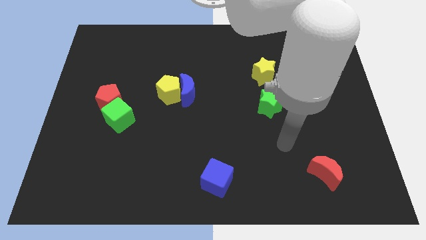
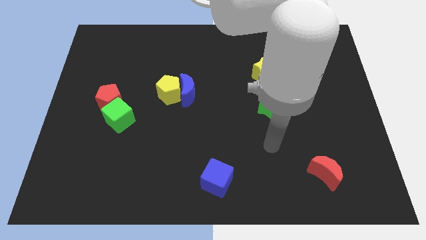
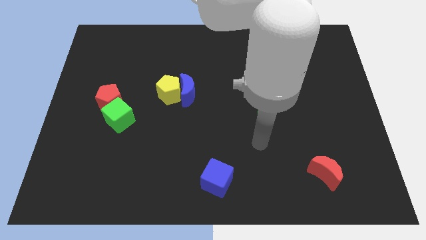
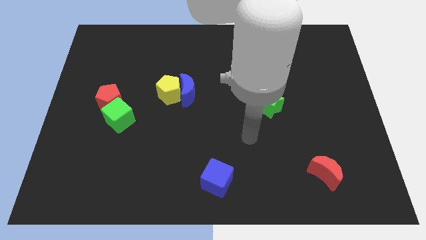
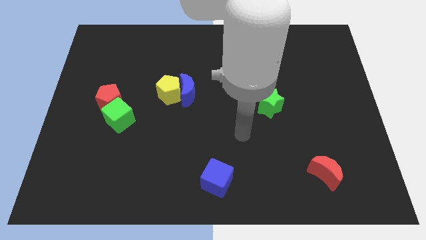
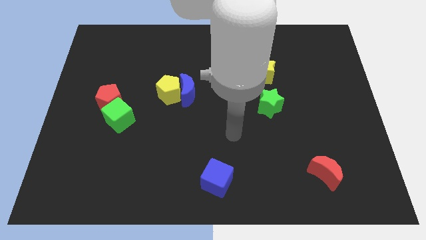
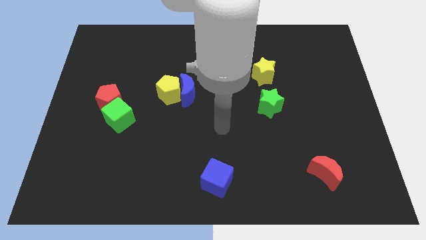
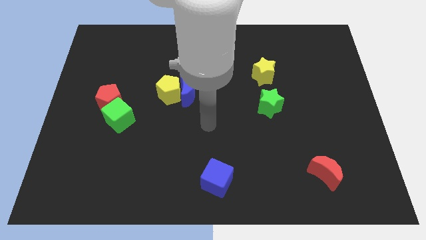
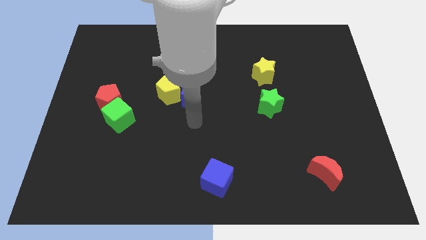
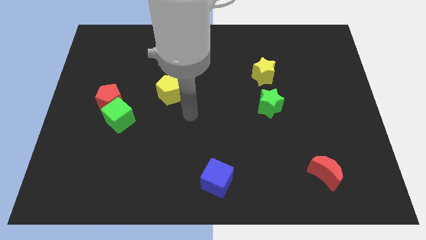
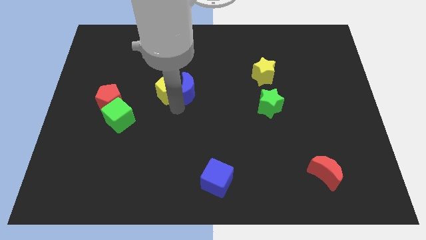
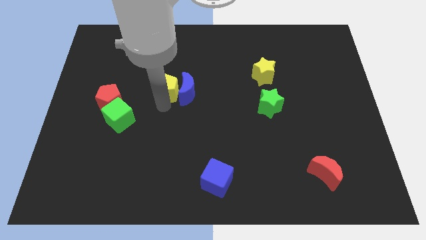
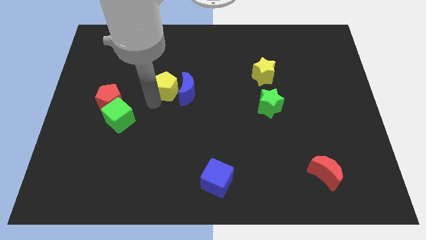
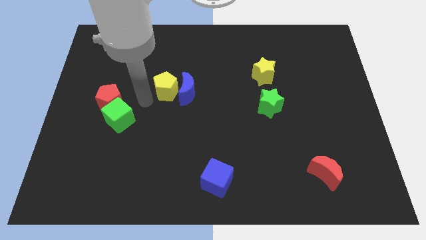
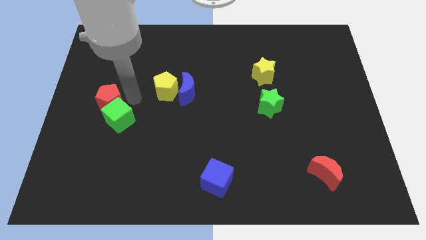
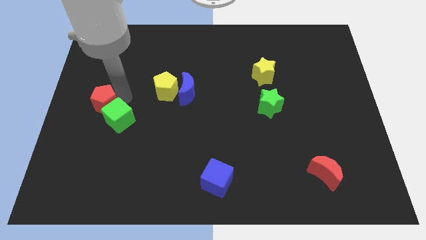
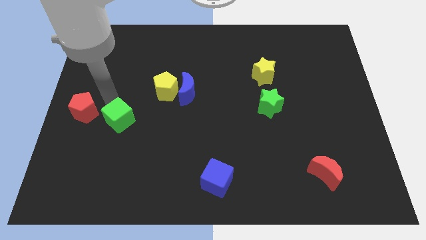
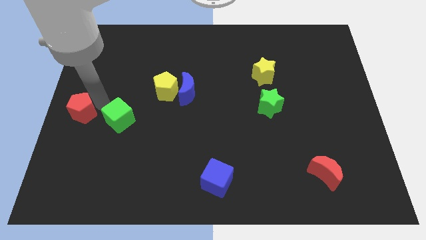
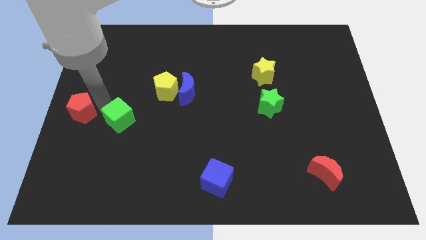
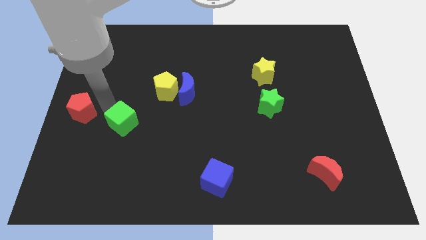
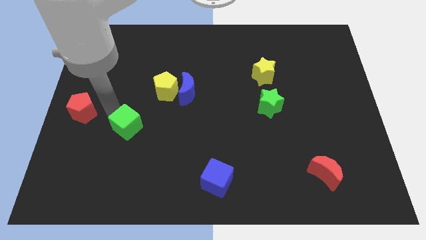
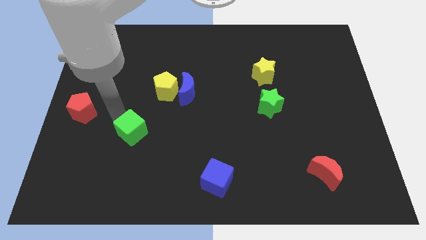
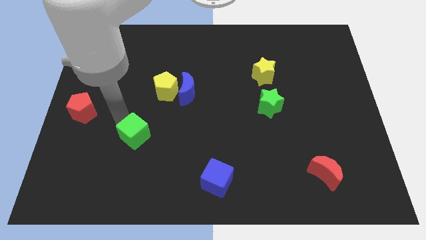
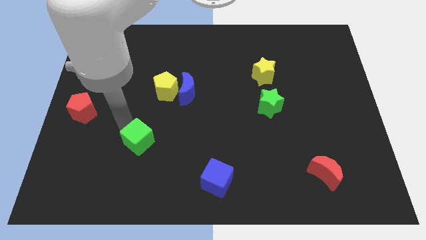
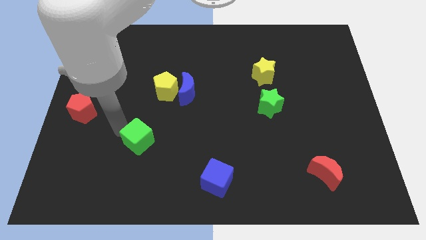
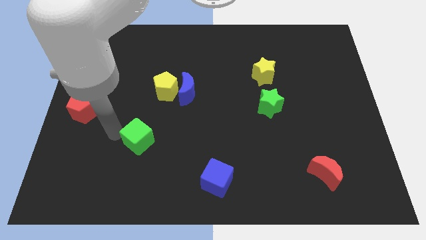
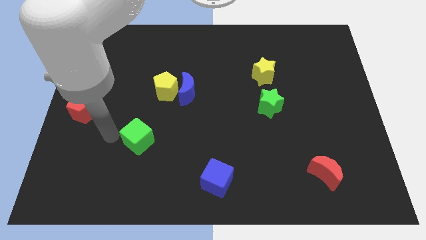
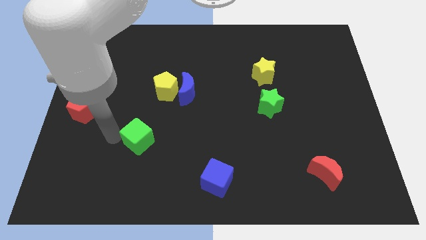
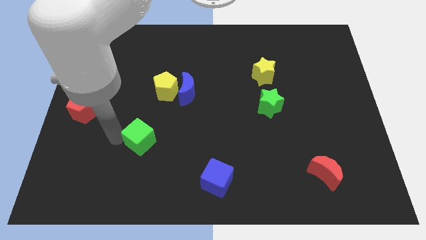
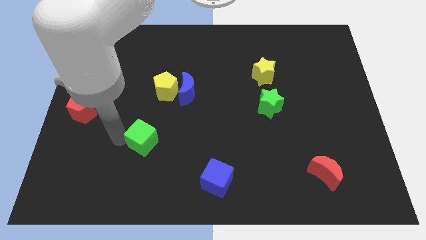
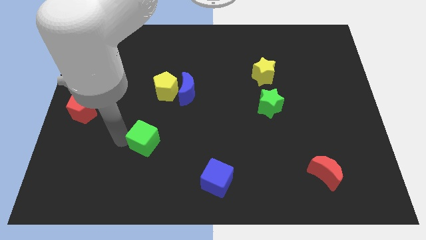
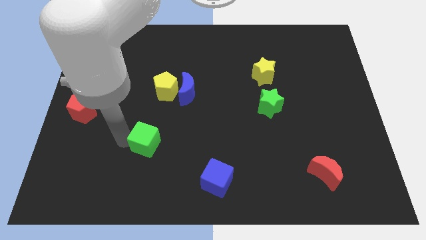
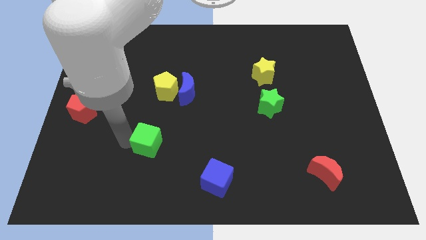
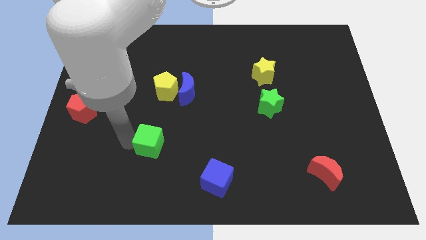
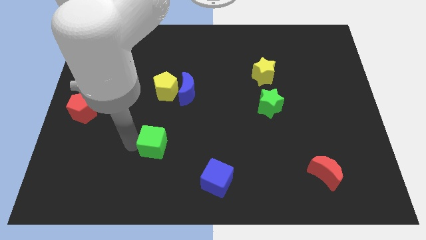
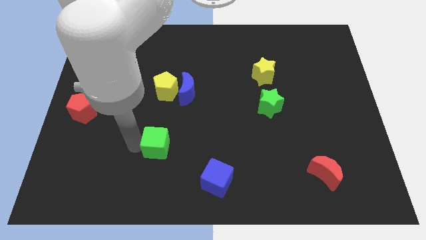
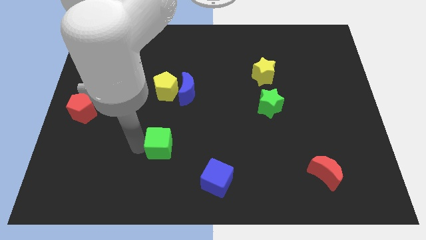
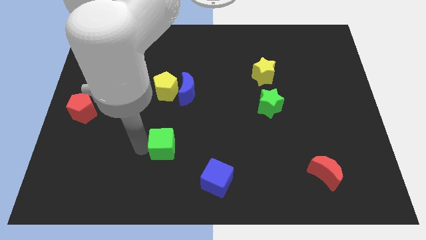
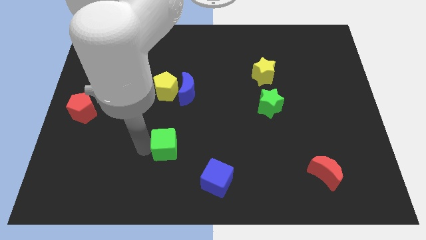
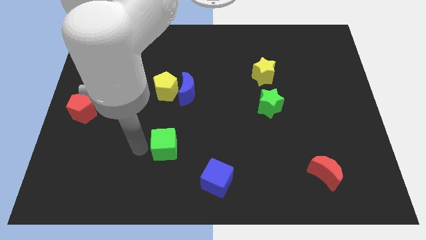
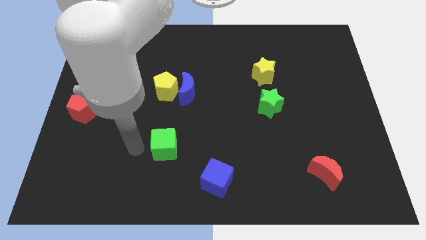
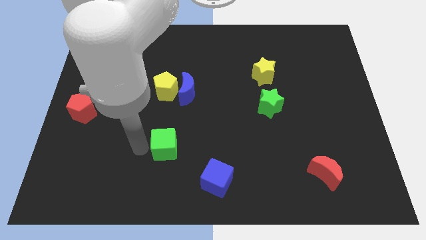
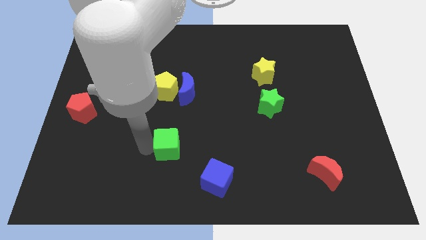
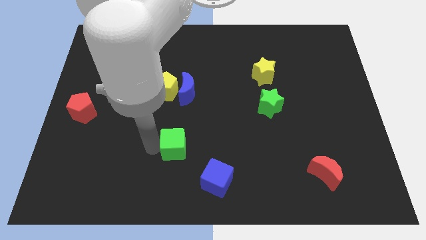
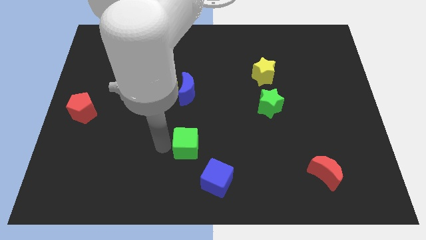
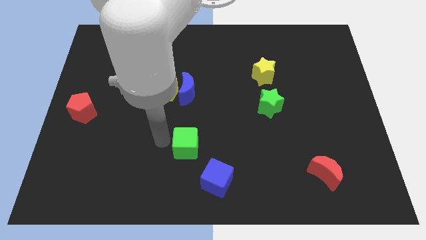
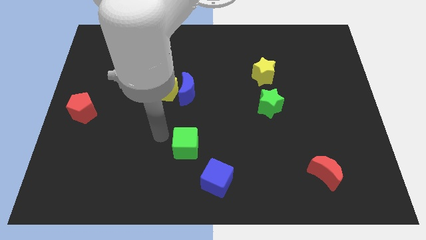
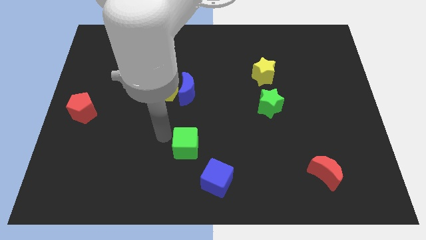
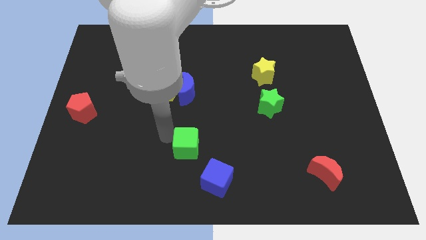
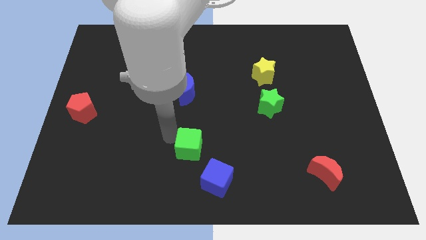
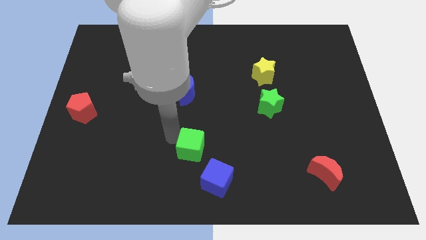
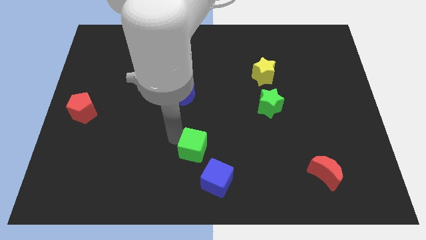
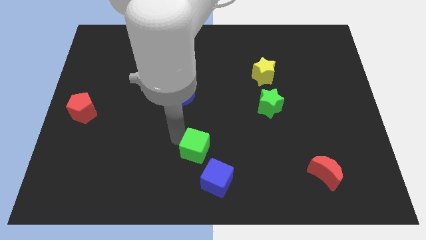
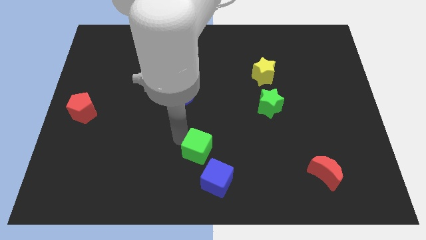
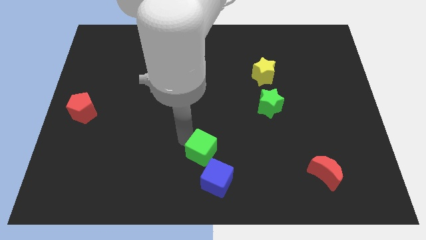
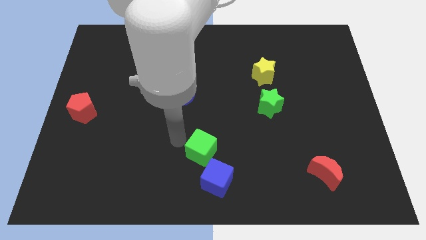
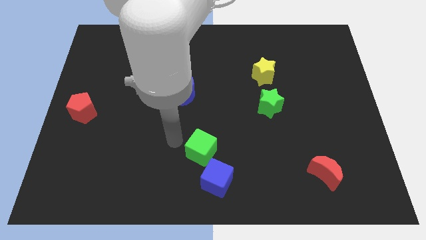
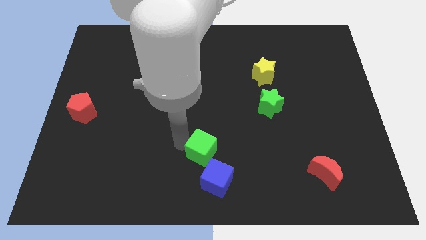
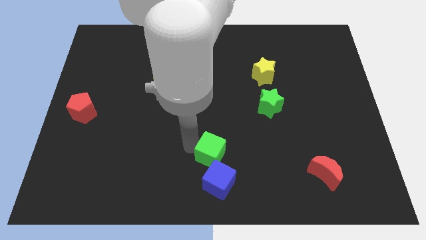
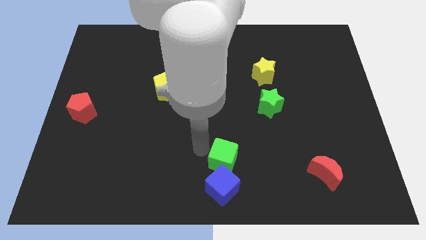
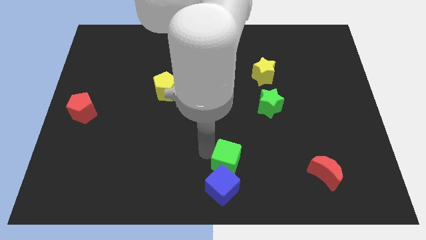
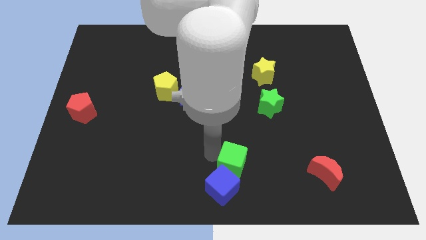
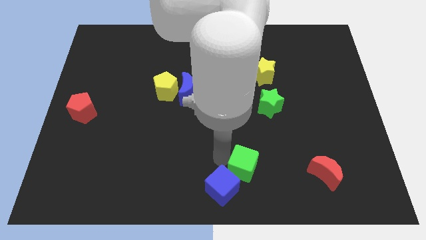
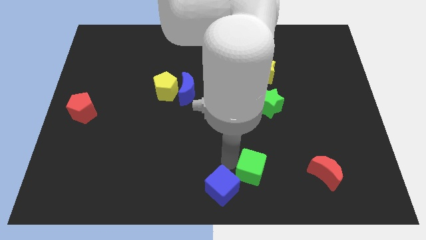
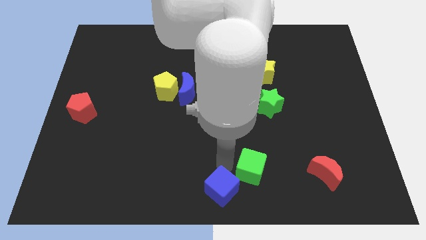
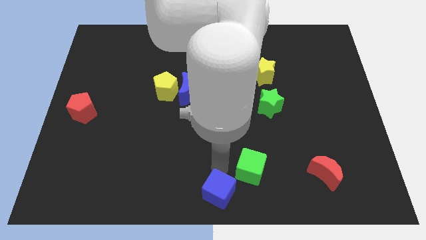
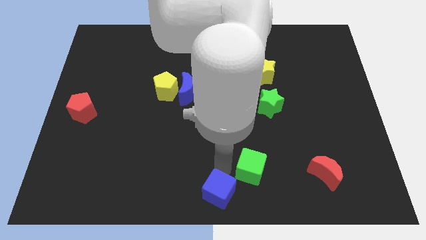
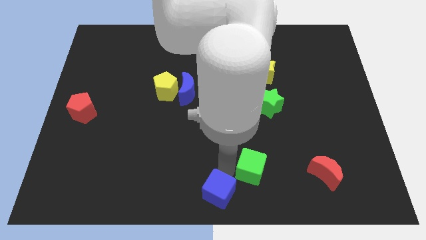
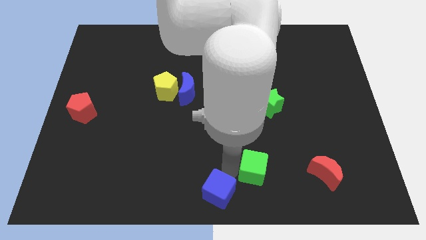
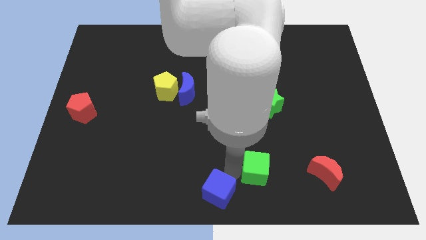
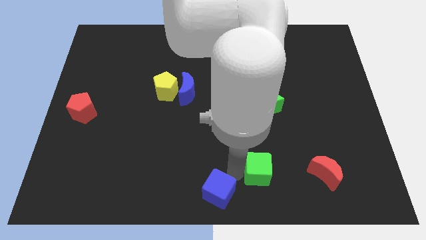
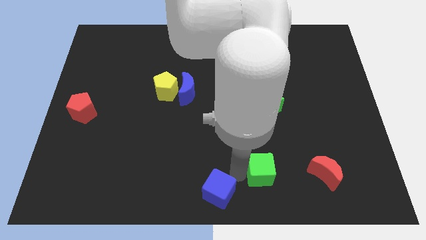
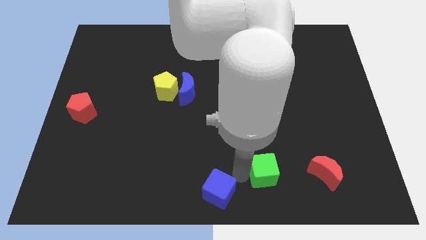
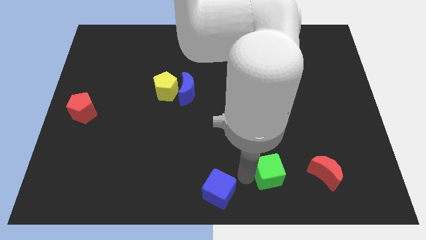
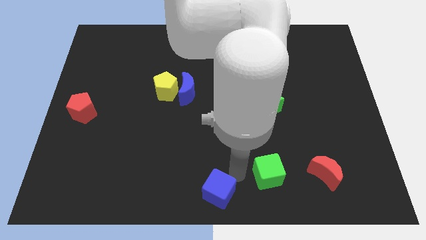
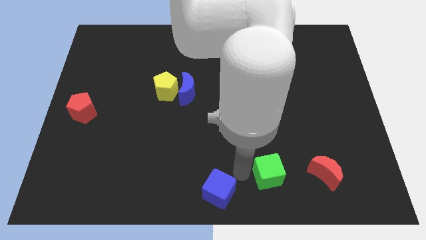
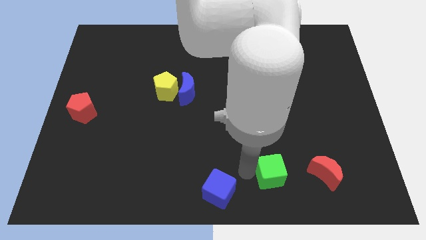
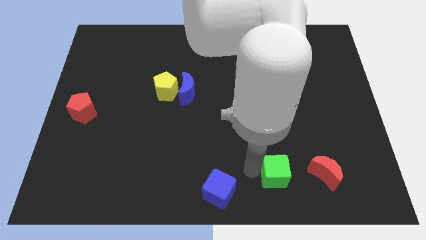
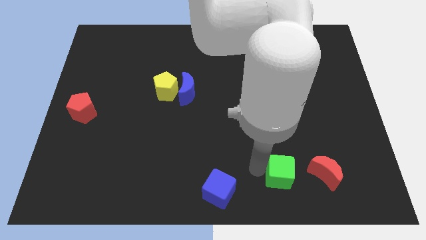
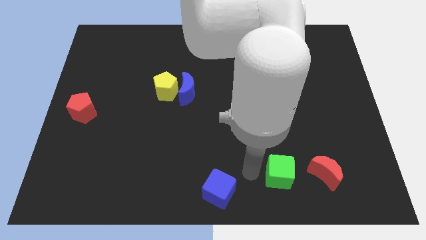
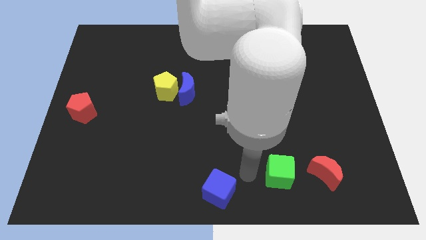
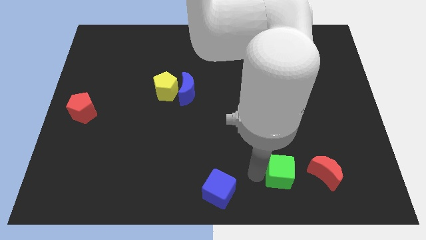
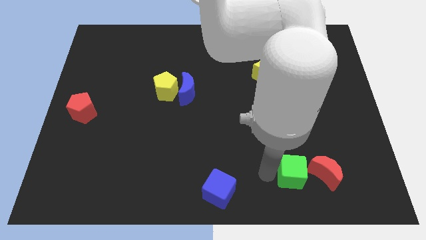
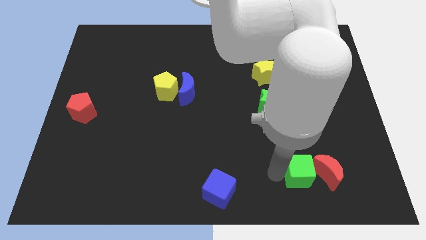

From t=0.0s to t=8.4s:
move the green cube next to the red moon
